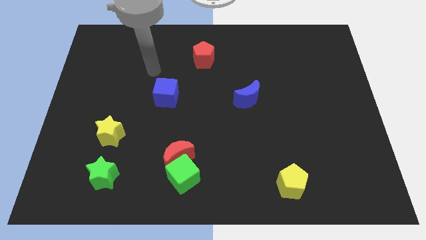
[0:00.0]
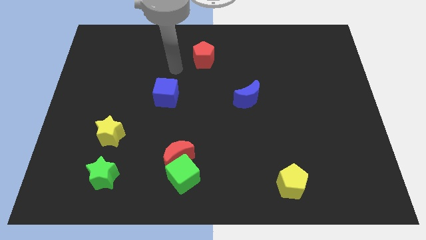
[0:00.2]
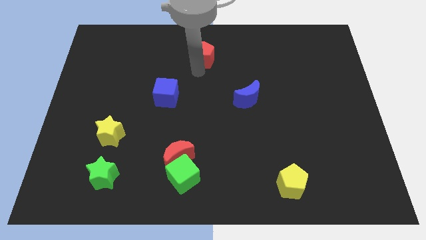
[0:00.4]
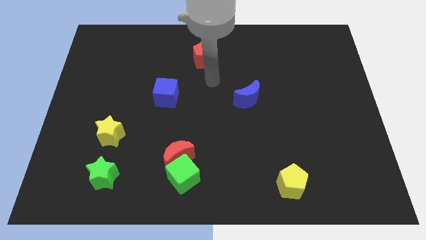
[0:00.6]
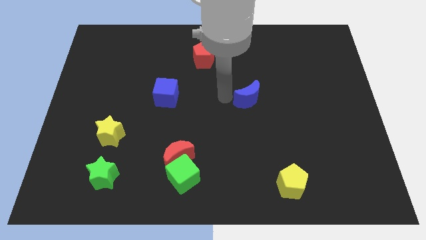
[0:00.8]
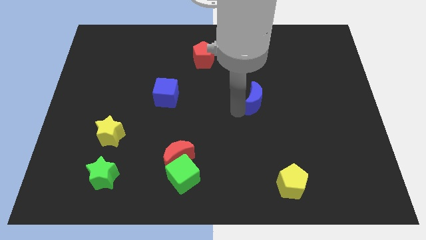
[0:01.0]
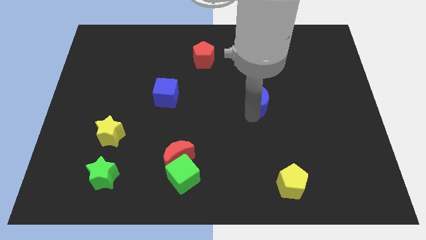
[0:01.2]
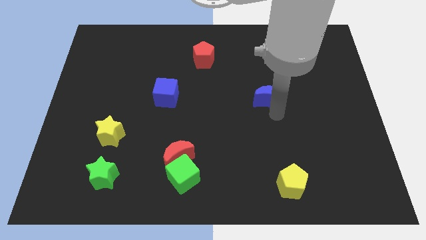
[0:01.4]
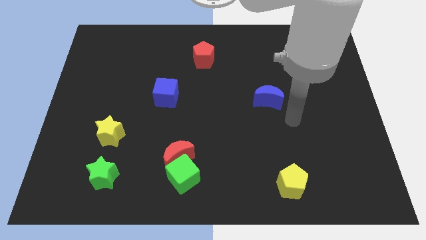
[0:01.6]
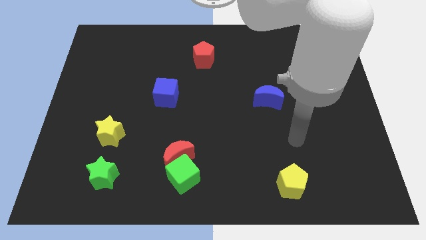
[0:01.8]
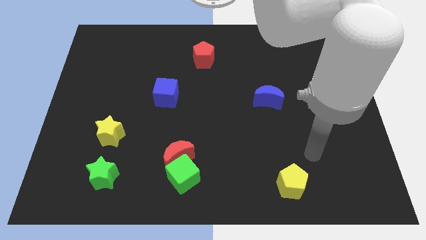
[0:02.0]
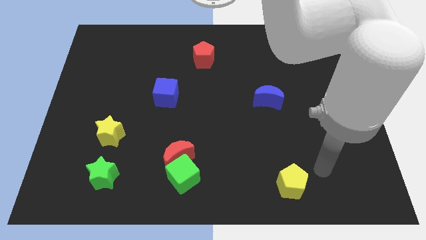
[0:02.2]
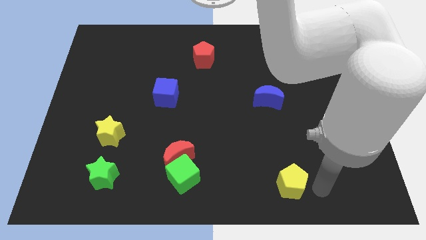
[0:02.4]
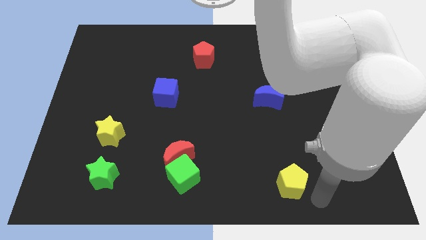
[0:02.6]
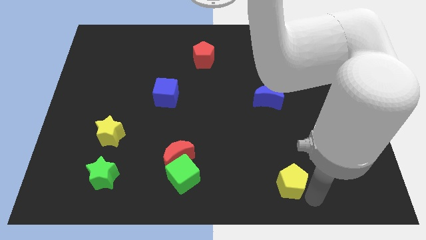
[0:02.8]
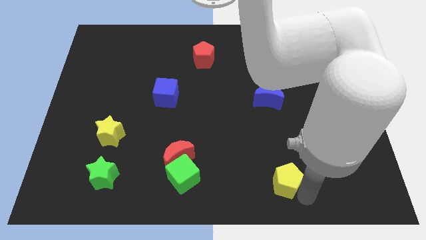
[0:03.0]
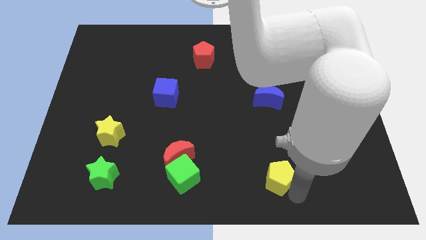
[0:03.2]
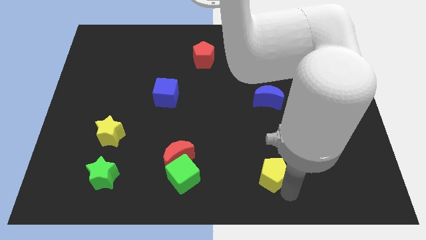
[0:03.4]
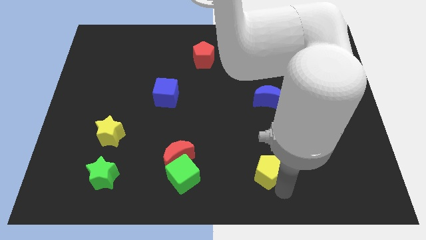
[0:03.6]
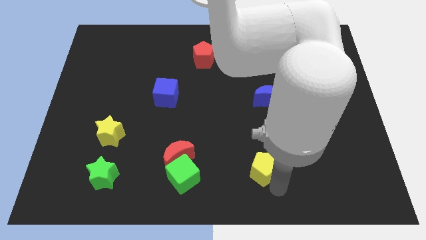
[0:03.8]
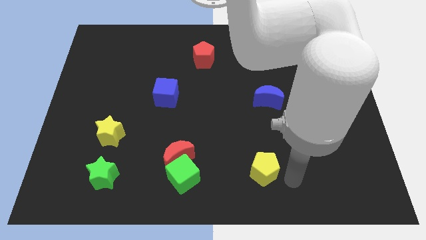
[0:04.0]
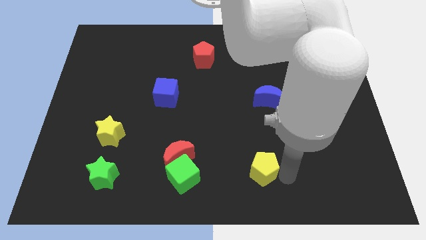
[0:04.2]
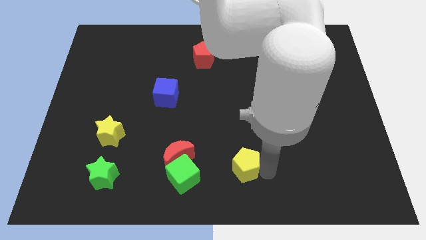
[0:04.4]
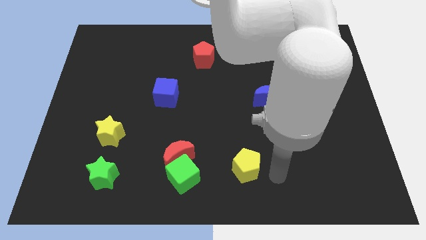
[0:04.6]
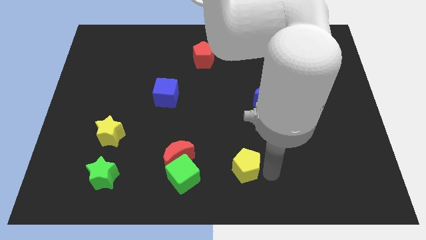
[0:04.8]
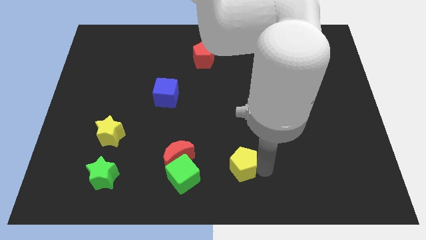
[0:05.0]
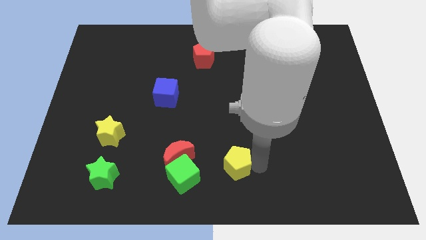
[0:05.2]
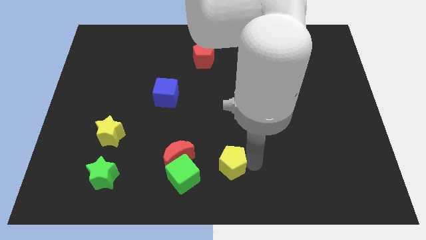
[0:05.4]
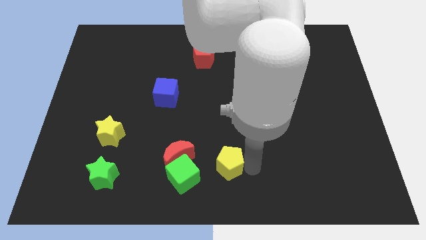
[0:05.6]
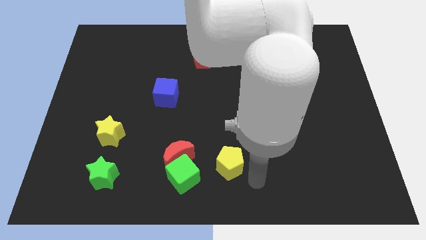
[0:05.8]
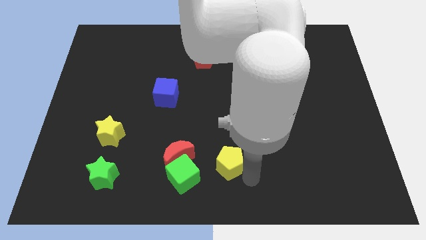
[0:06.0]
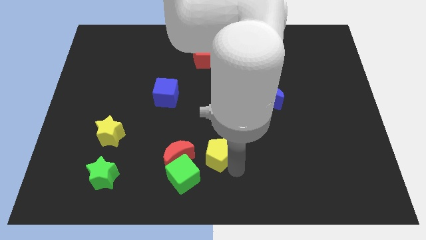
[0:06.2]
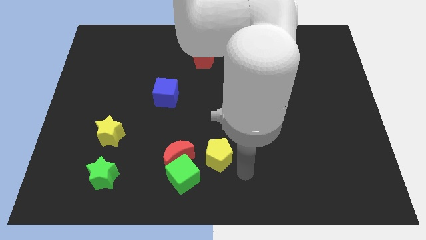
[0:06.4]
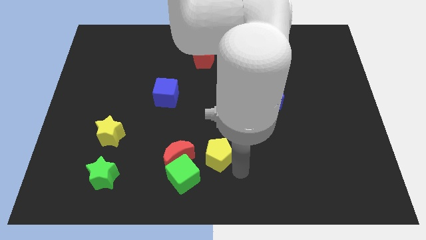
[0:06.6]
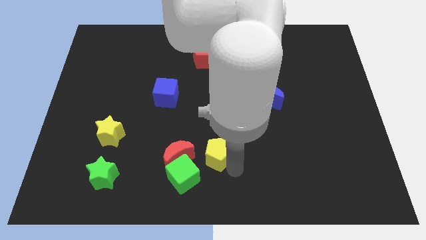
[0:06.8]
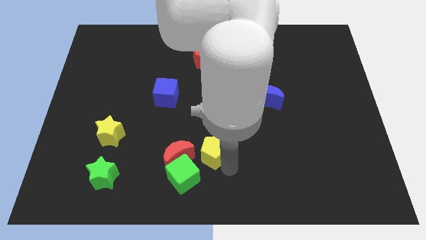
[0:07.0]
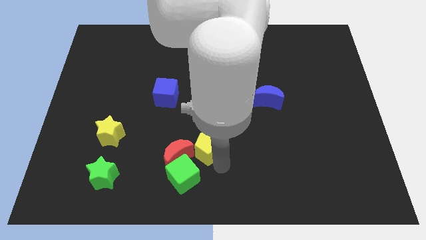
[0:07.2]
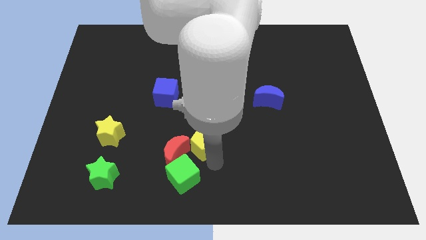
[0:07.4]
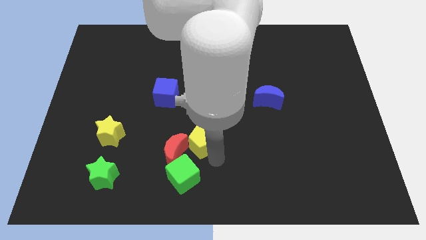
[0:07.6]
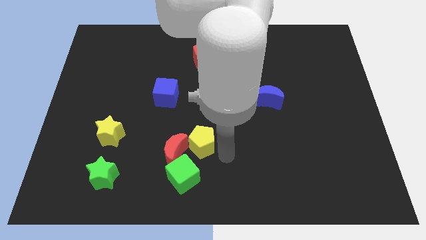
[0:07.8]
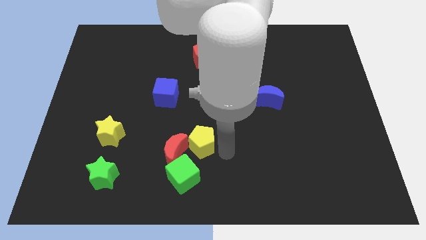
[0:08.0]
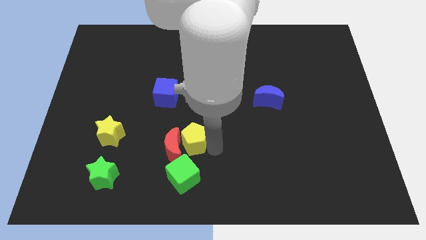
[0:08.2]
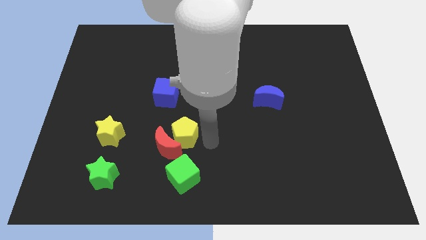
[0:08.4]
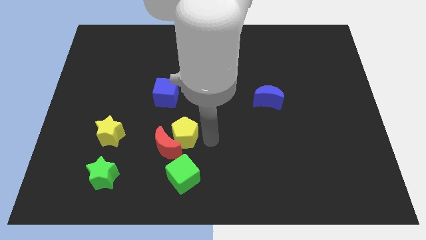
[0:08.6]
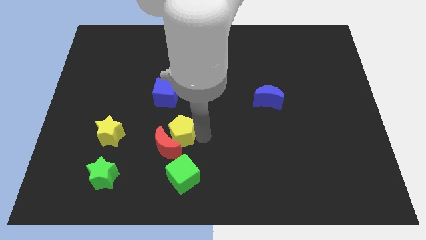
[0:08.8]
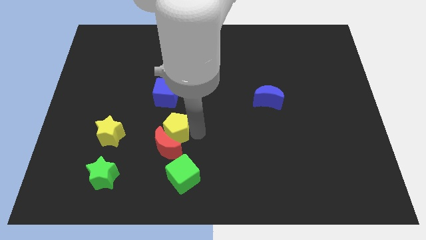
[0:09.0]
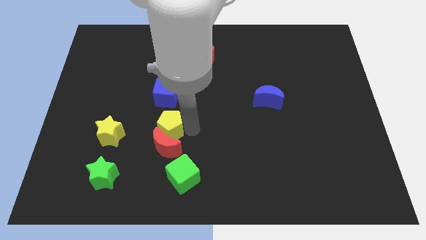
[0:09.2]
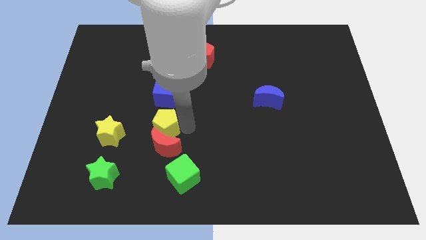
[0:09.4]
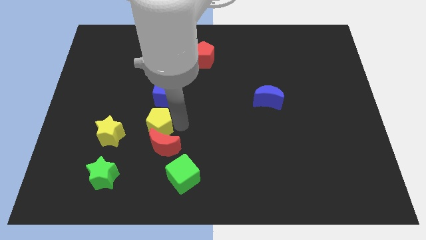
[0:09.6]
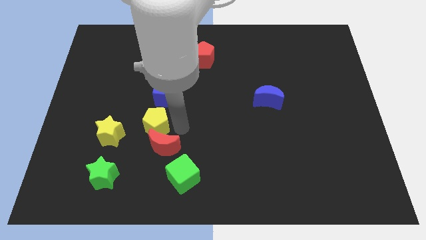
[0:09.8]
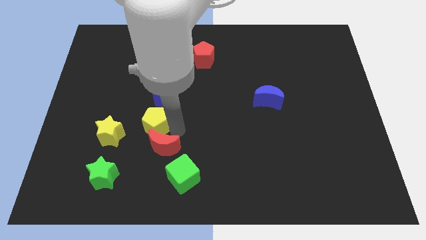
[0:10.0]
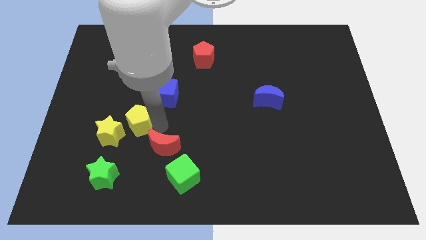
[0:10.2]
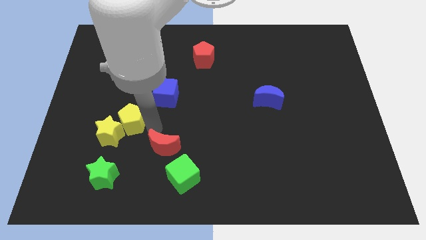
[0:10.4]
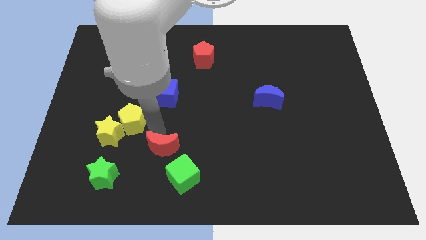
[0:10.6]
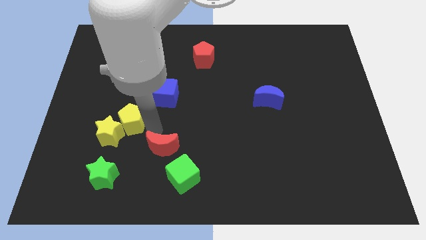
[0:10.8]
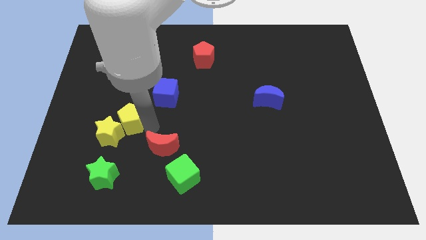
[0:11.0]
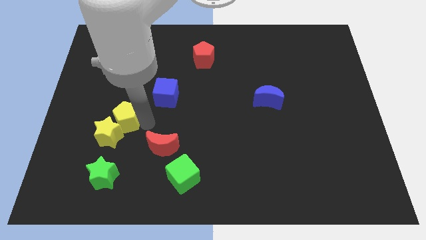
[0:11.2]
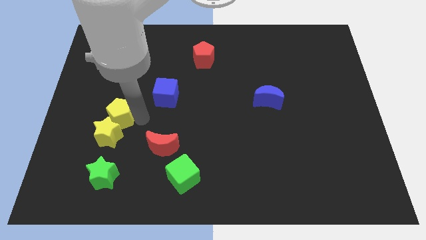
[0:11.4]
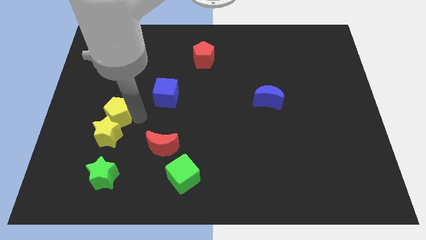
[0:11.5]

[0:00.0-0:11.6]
push the yellow pentagon diagonally up and to the left of the yellow star

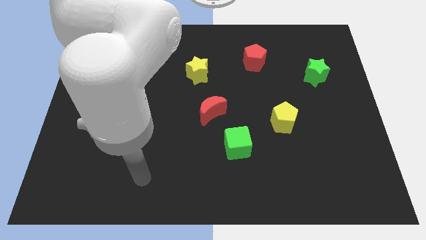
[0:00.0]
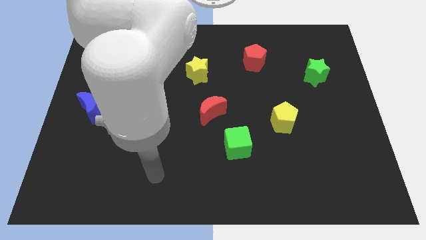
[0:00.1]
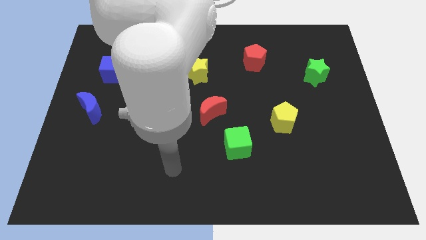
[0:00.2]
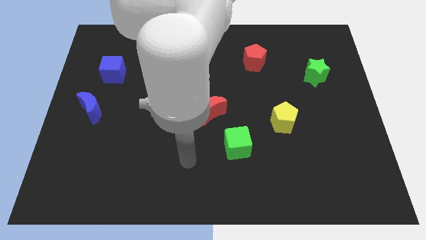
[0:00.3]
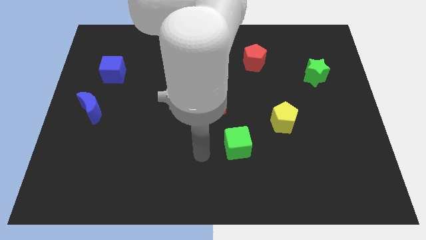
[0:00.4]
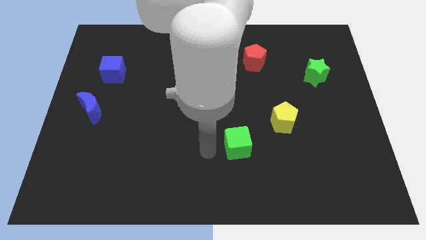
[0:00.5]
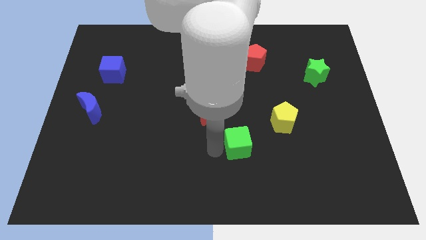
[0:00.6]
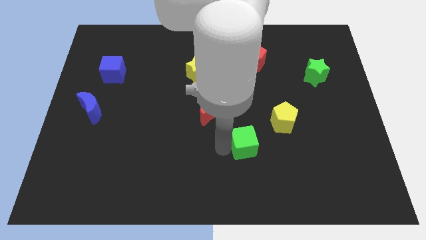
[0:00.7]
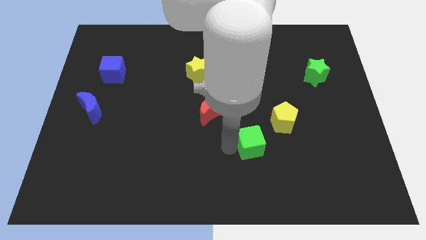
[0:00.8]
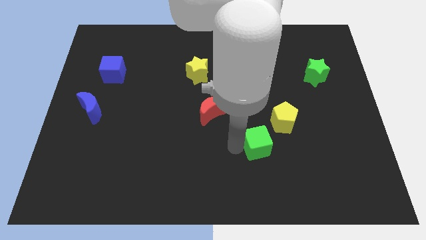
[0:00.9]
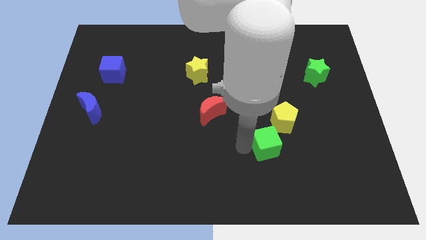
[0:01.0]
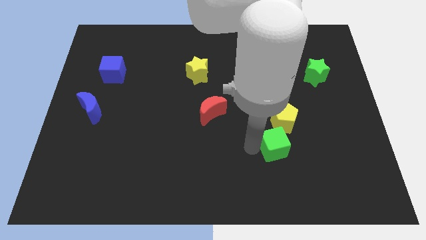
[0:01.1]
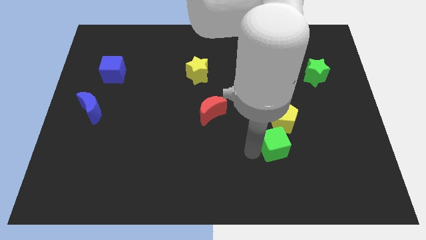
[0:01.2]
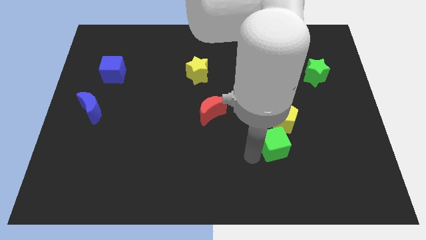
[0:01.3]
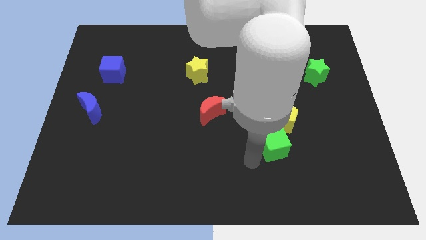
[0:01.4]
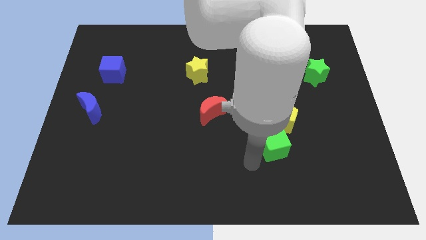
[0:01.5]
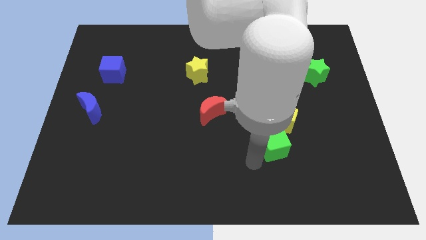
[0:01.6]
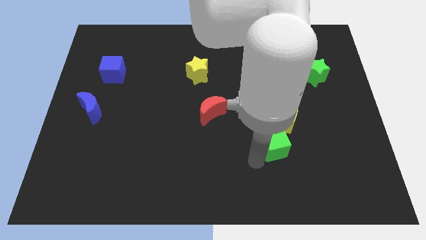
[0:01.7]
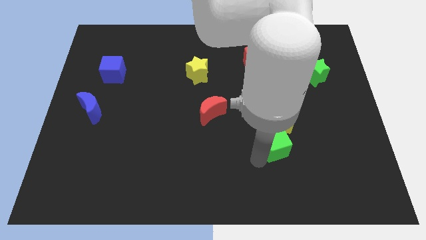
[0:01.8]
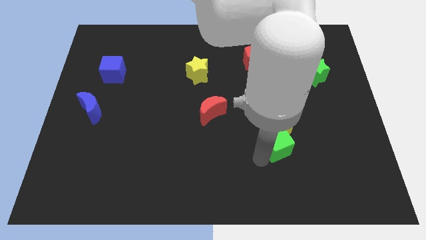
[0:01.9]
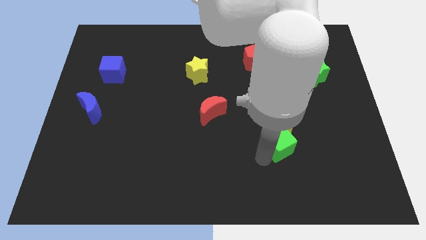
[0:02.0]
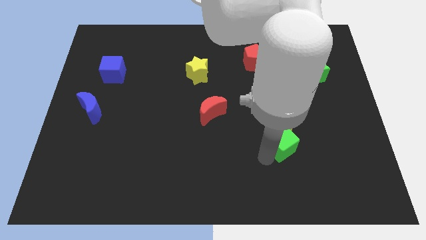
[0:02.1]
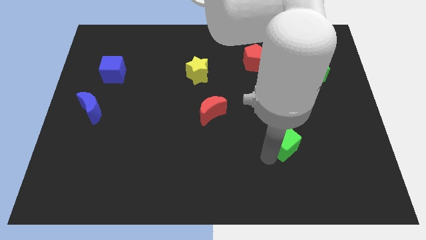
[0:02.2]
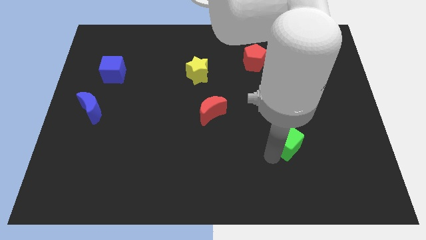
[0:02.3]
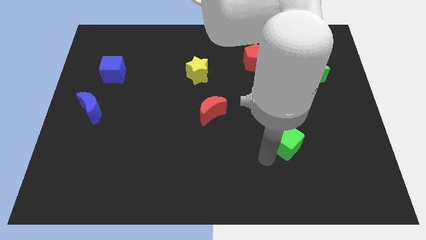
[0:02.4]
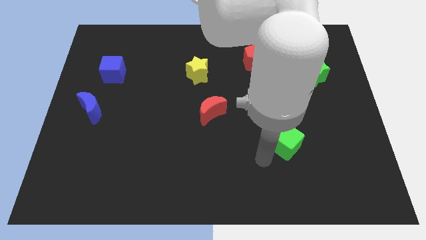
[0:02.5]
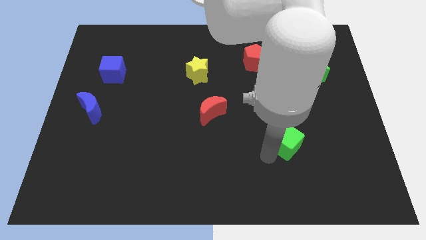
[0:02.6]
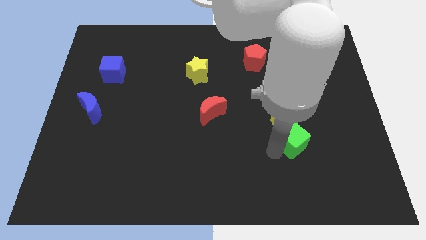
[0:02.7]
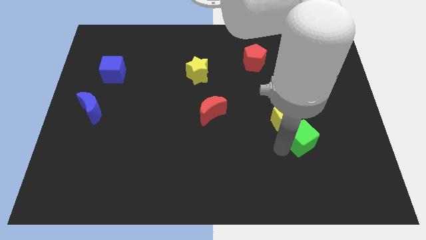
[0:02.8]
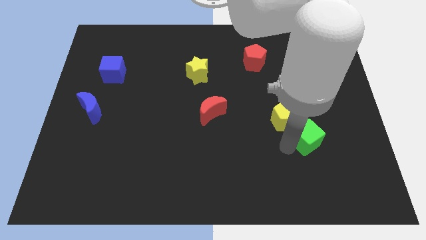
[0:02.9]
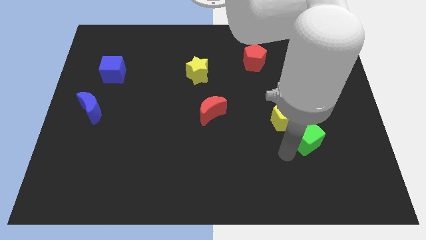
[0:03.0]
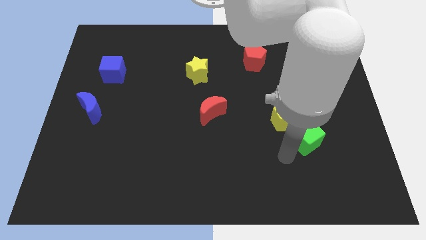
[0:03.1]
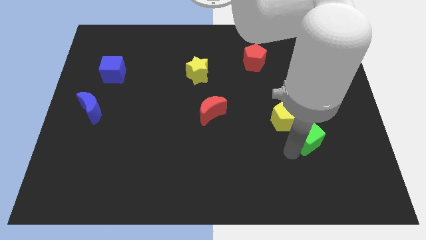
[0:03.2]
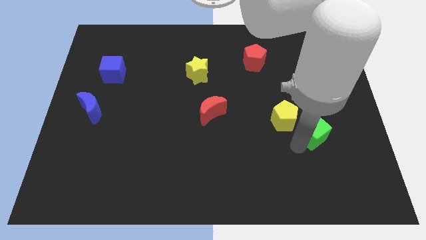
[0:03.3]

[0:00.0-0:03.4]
push the green cube to the right side of the yellow pentagon
